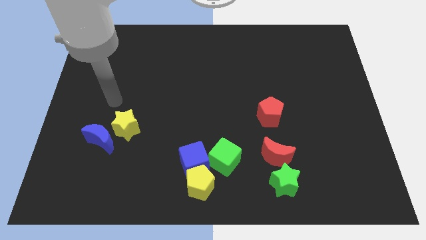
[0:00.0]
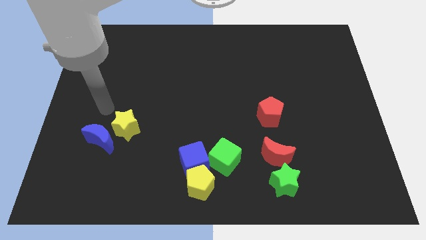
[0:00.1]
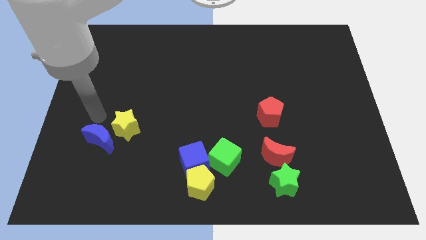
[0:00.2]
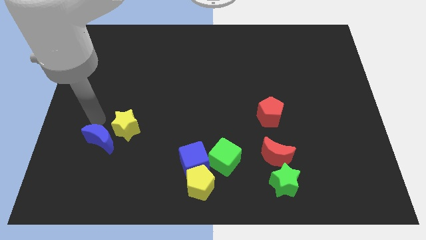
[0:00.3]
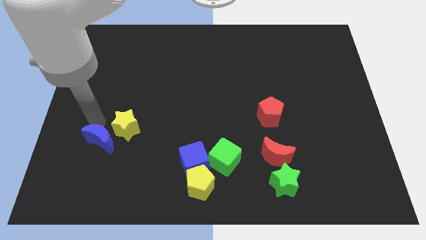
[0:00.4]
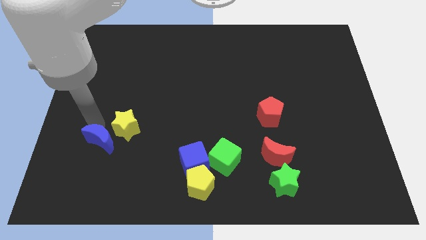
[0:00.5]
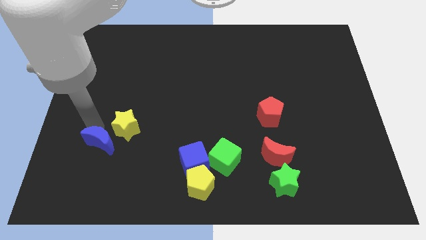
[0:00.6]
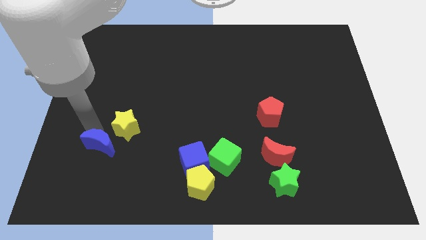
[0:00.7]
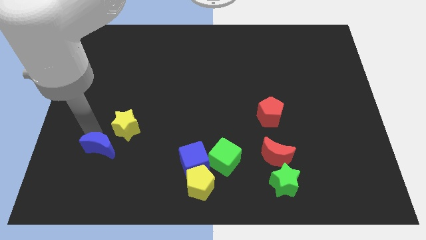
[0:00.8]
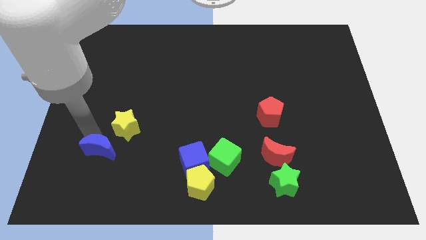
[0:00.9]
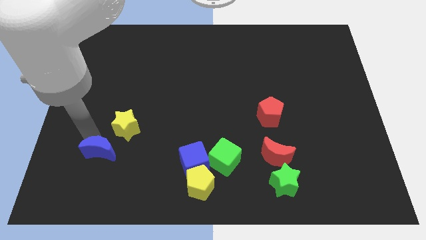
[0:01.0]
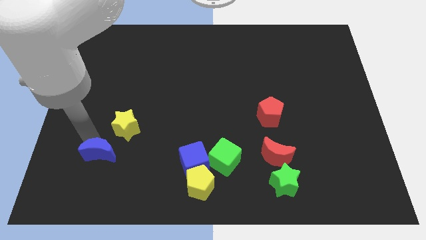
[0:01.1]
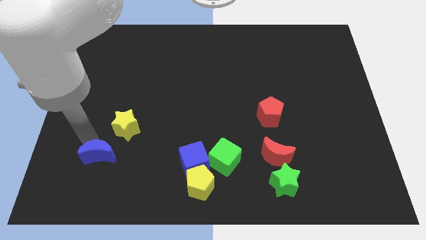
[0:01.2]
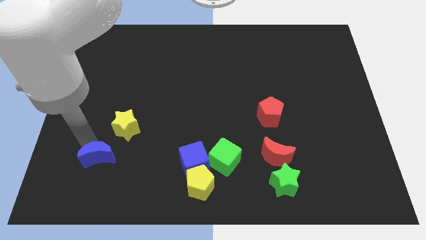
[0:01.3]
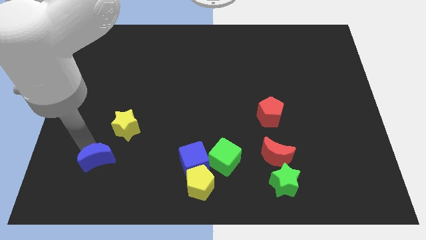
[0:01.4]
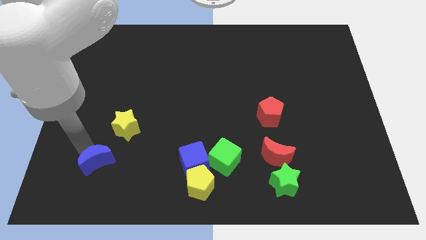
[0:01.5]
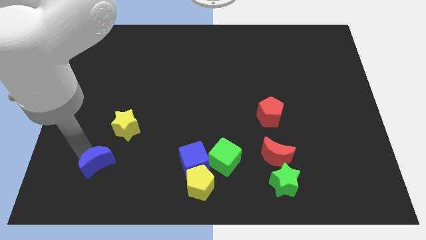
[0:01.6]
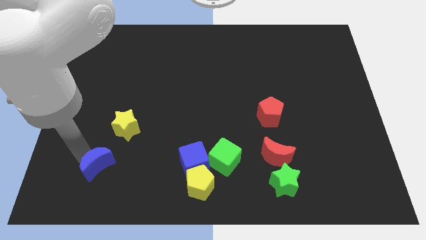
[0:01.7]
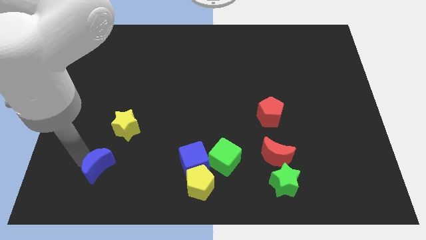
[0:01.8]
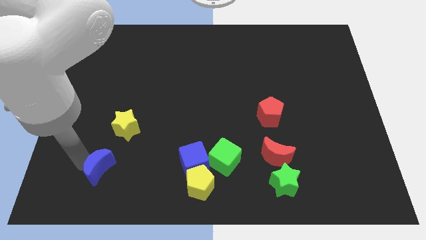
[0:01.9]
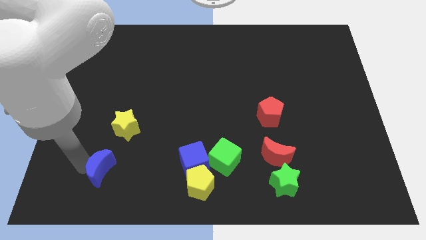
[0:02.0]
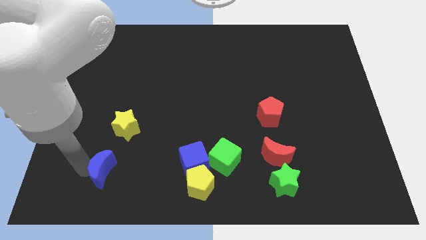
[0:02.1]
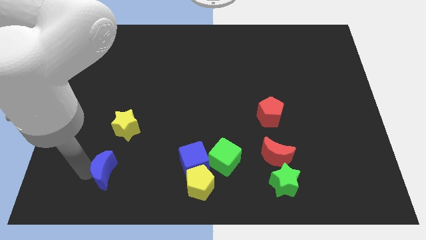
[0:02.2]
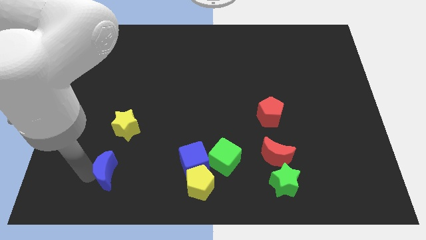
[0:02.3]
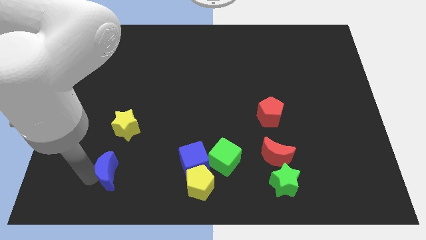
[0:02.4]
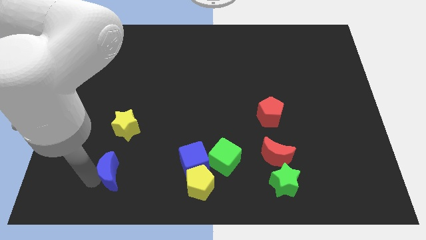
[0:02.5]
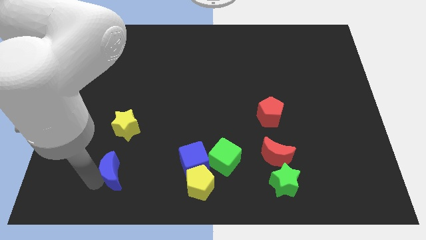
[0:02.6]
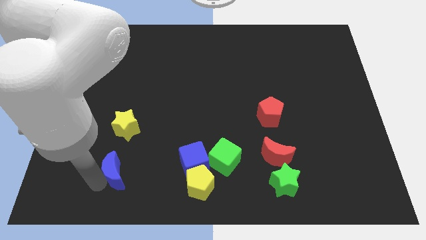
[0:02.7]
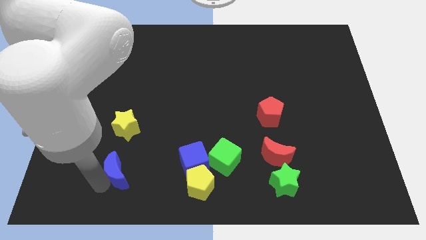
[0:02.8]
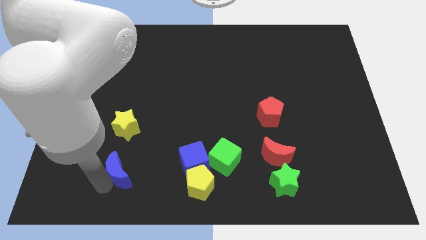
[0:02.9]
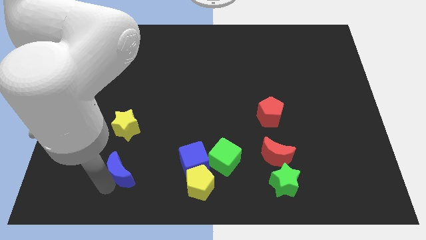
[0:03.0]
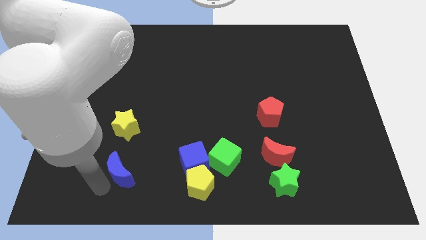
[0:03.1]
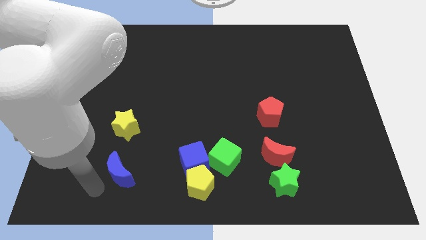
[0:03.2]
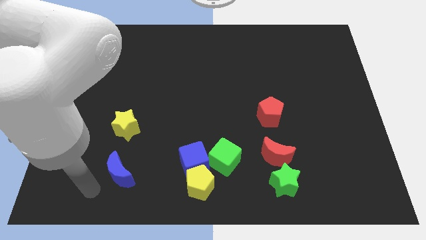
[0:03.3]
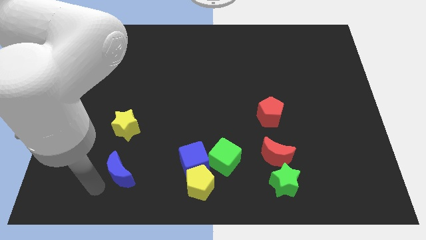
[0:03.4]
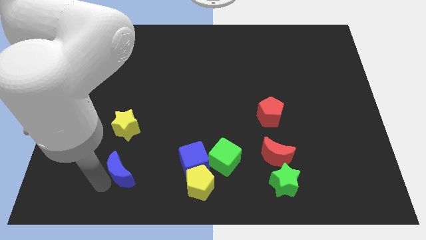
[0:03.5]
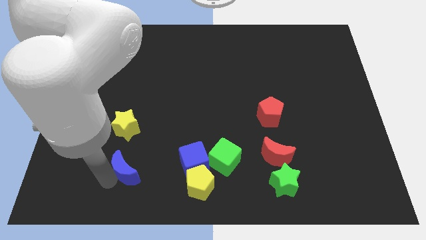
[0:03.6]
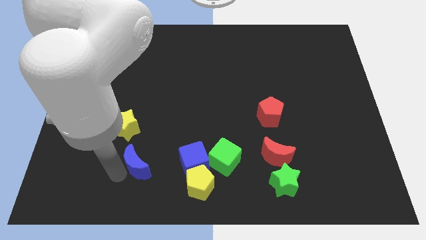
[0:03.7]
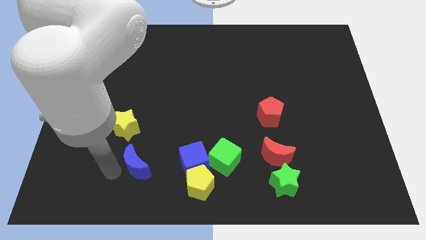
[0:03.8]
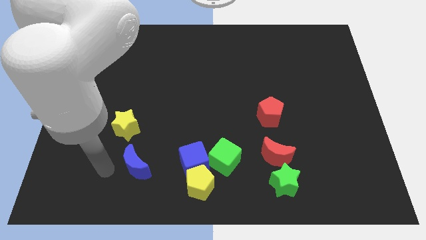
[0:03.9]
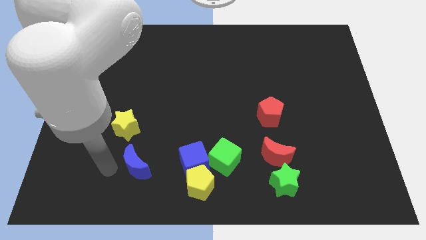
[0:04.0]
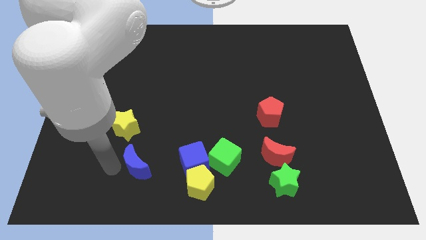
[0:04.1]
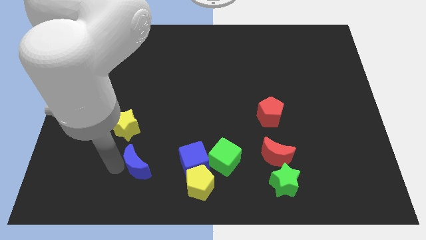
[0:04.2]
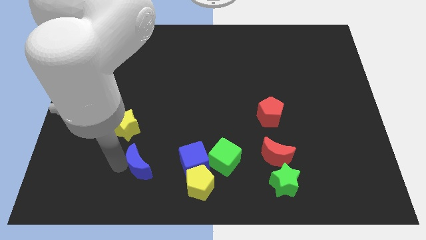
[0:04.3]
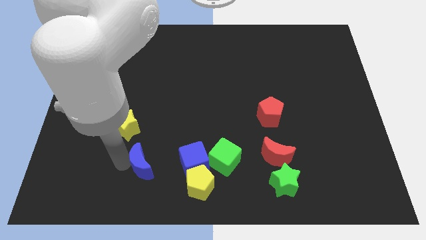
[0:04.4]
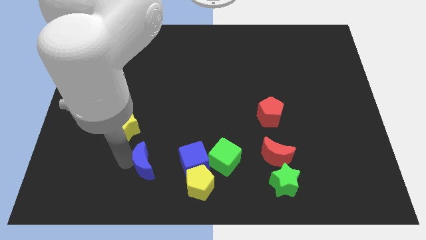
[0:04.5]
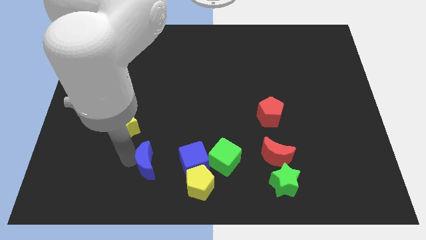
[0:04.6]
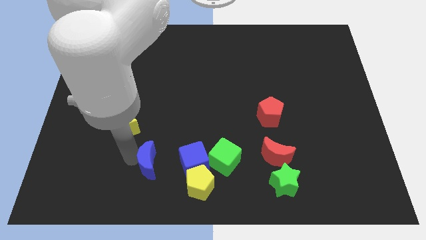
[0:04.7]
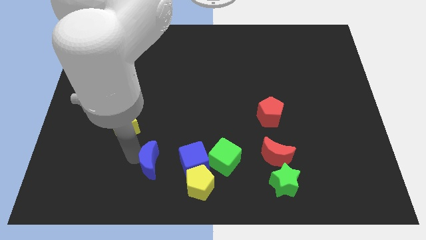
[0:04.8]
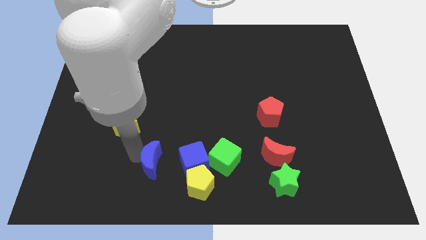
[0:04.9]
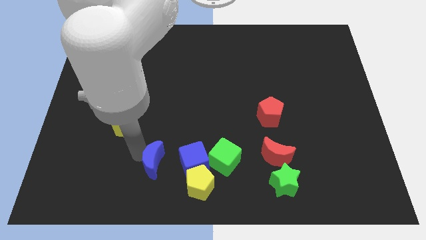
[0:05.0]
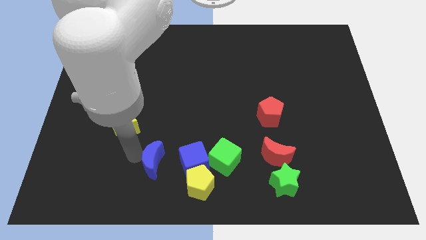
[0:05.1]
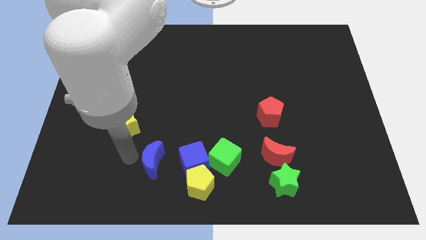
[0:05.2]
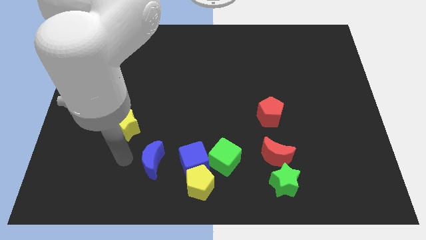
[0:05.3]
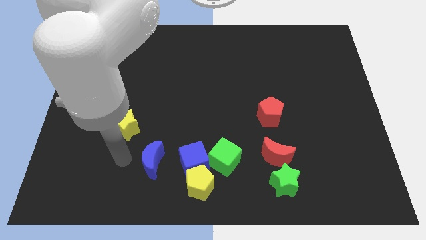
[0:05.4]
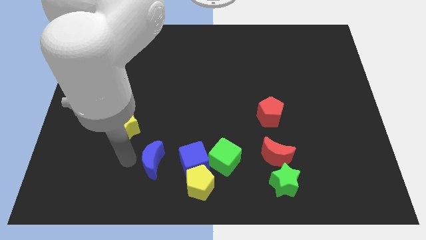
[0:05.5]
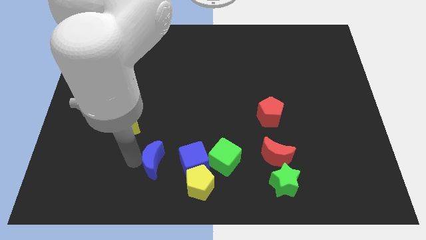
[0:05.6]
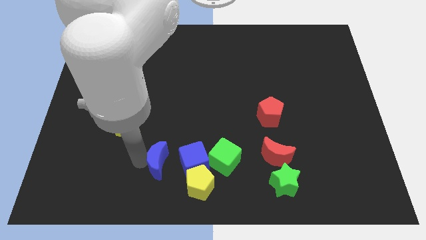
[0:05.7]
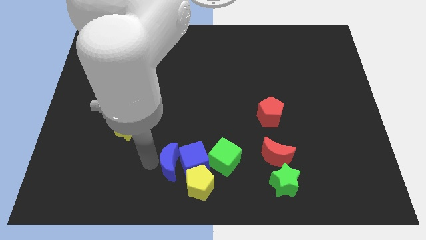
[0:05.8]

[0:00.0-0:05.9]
slide the blue moon close to the blue cube

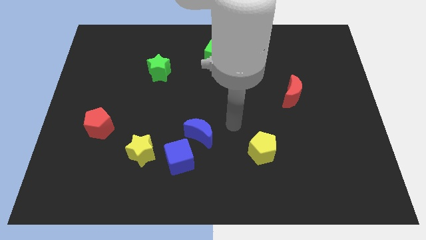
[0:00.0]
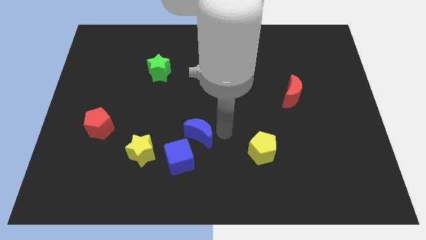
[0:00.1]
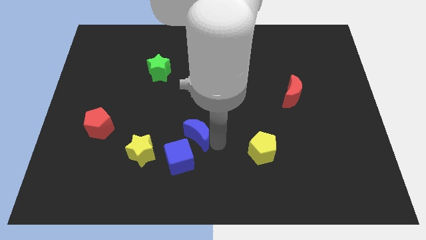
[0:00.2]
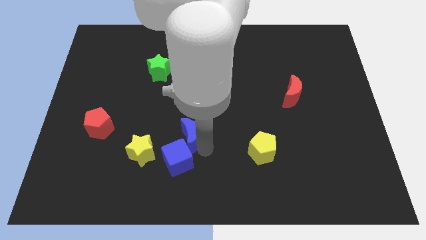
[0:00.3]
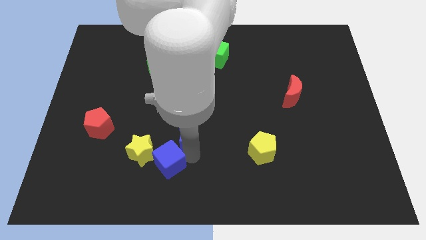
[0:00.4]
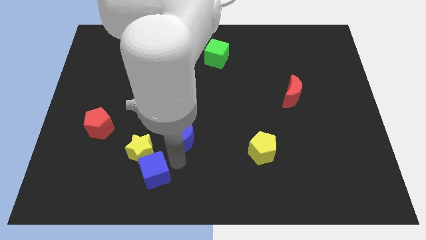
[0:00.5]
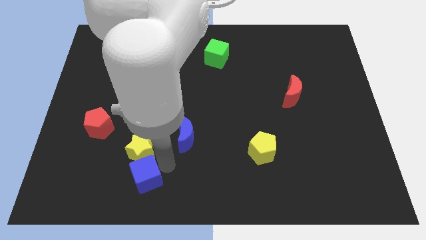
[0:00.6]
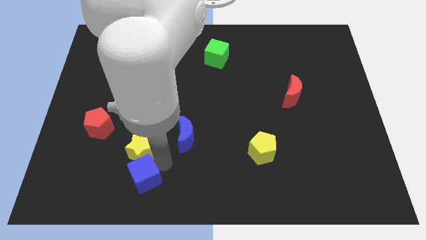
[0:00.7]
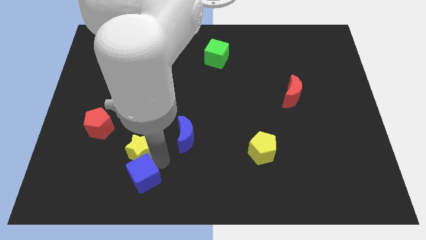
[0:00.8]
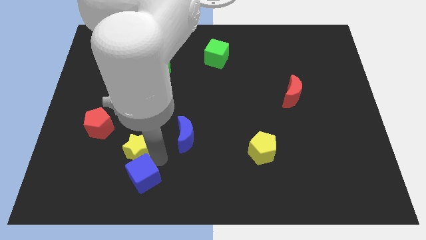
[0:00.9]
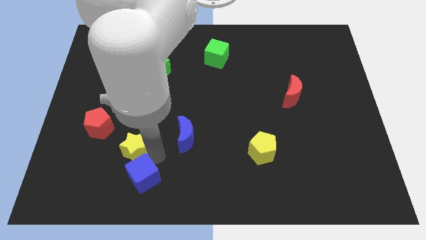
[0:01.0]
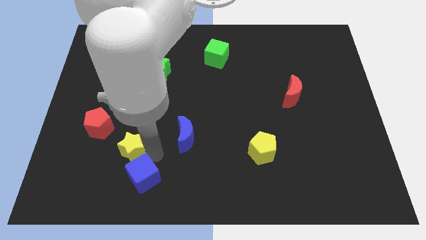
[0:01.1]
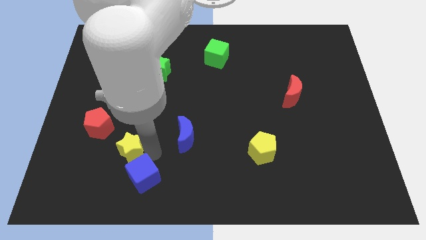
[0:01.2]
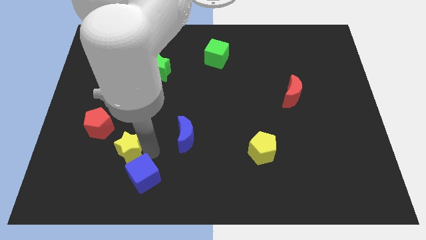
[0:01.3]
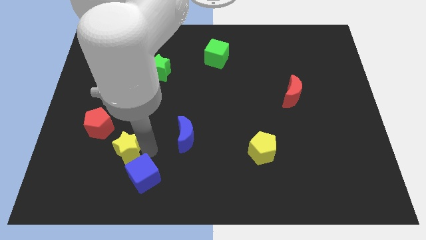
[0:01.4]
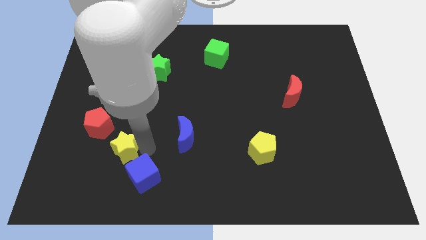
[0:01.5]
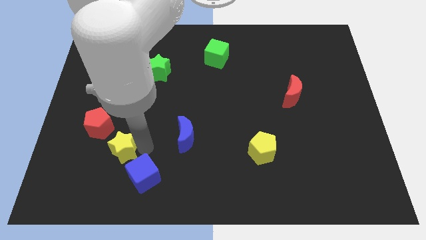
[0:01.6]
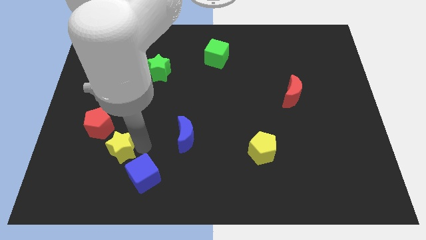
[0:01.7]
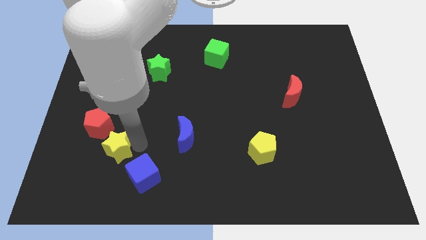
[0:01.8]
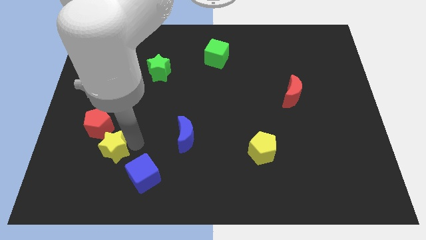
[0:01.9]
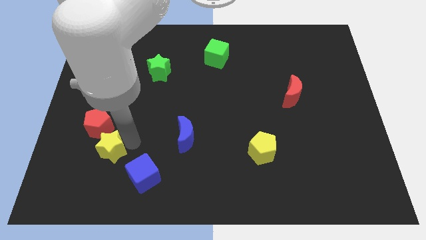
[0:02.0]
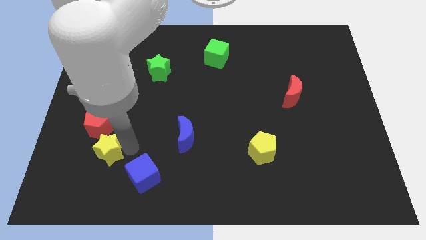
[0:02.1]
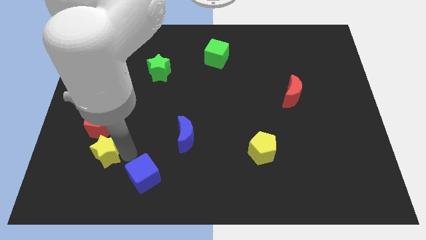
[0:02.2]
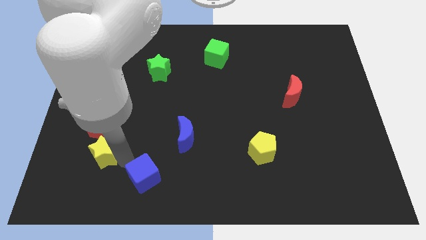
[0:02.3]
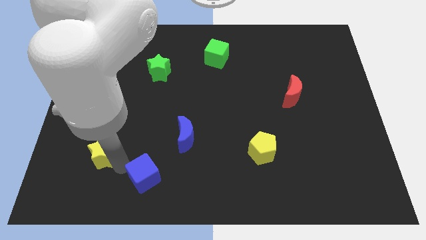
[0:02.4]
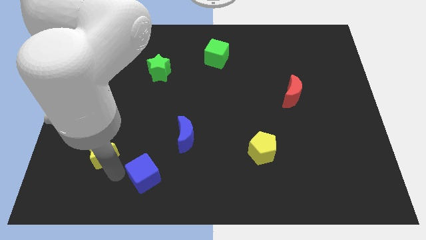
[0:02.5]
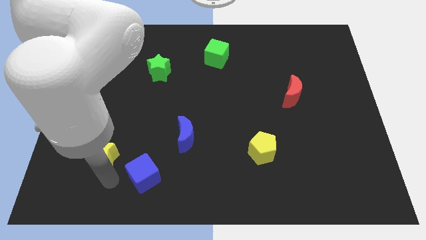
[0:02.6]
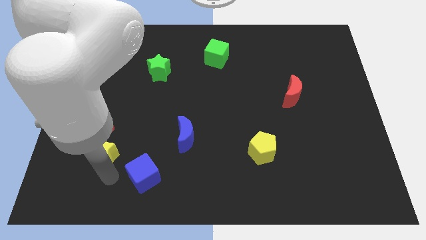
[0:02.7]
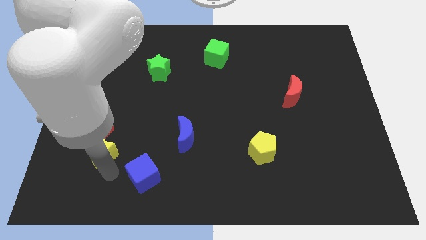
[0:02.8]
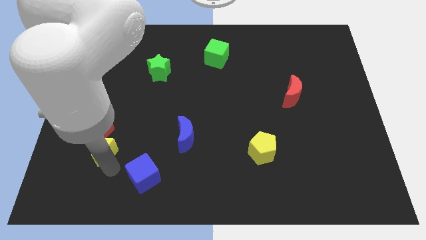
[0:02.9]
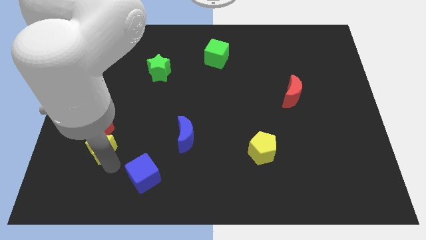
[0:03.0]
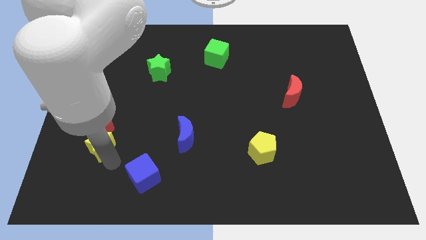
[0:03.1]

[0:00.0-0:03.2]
slide the yellow star close to the red pentagon
